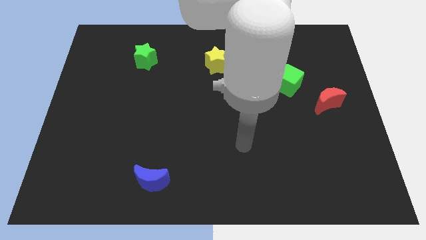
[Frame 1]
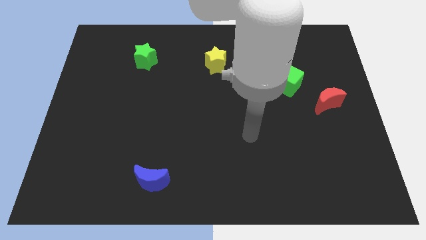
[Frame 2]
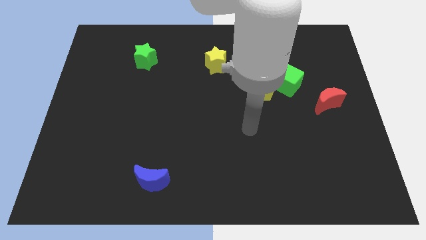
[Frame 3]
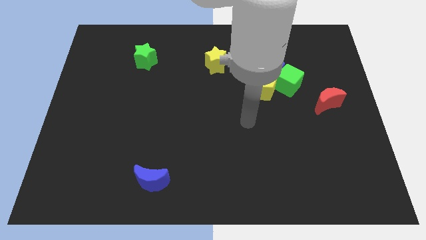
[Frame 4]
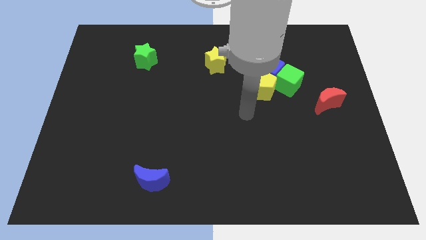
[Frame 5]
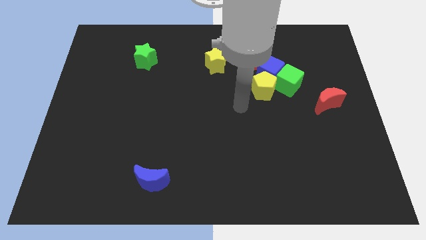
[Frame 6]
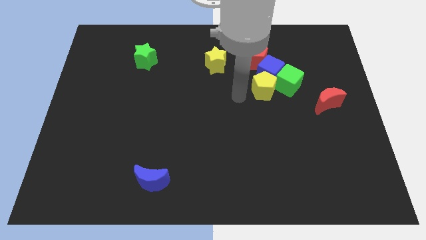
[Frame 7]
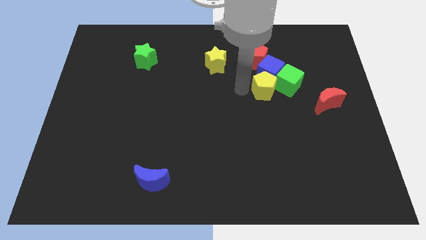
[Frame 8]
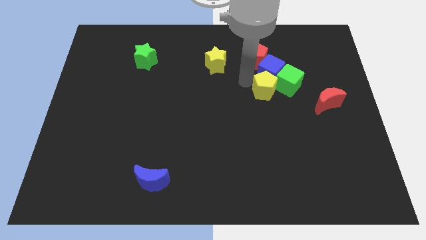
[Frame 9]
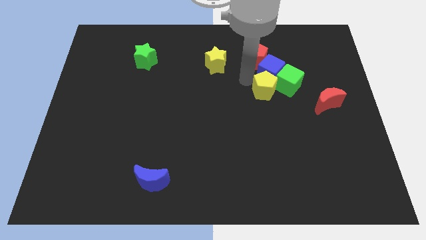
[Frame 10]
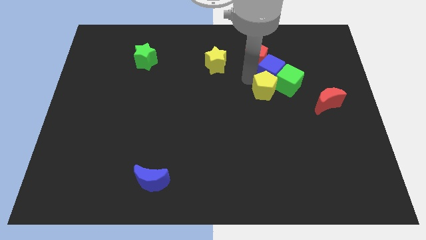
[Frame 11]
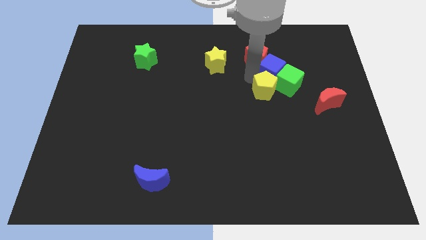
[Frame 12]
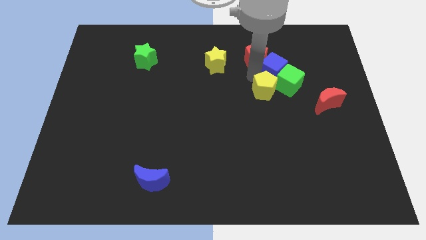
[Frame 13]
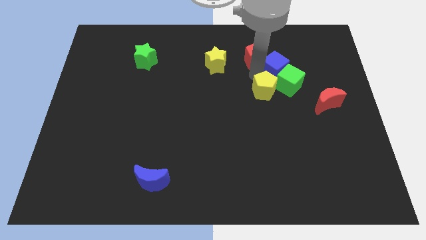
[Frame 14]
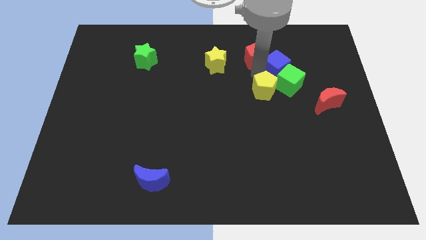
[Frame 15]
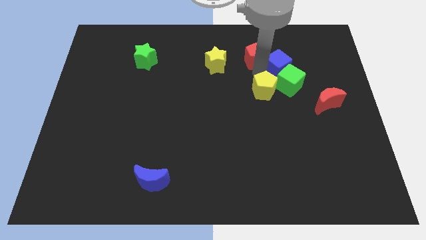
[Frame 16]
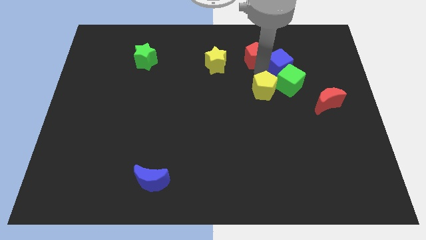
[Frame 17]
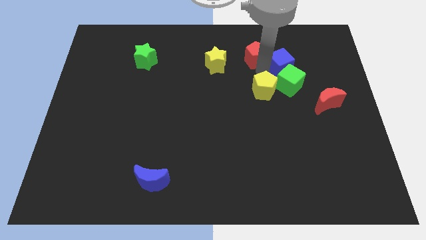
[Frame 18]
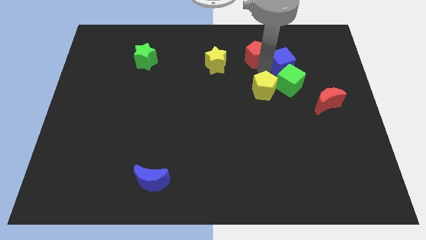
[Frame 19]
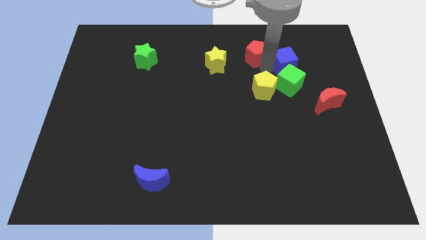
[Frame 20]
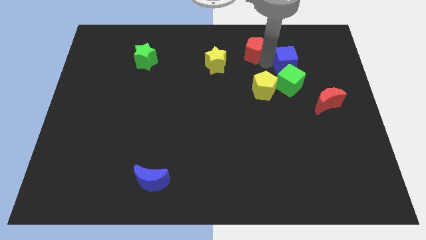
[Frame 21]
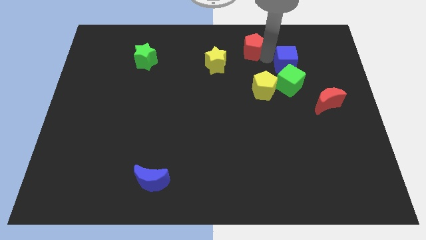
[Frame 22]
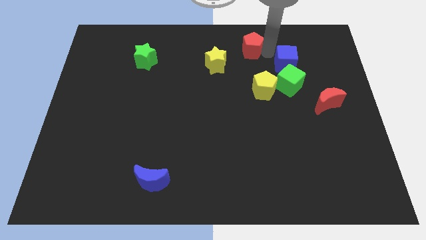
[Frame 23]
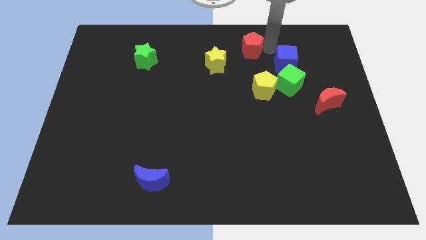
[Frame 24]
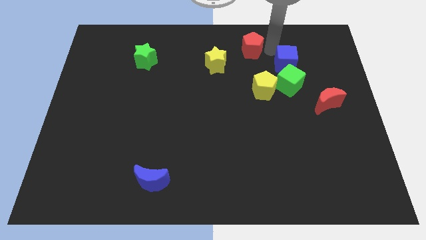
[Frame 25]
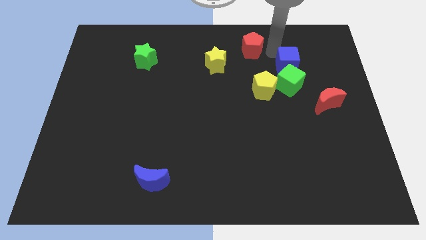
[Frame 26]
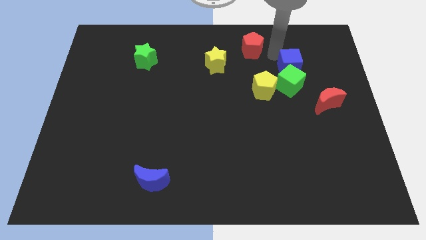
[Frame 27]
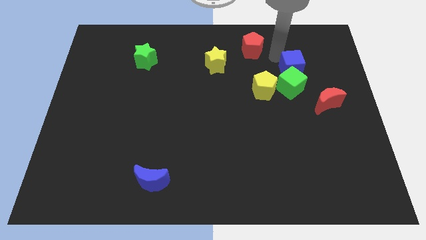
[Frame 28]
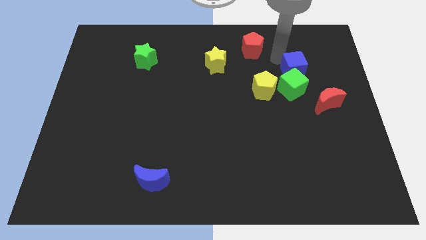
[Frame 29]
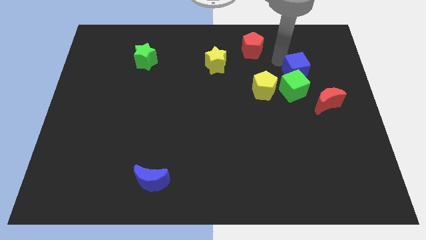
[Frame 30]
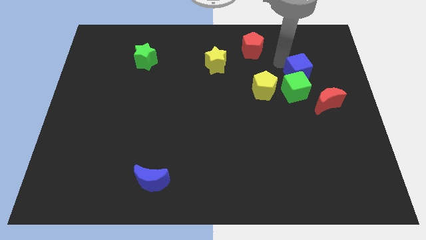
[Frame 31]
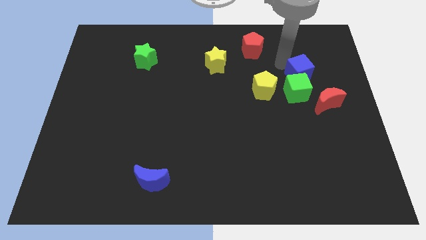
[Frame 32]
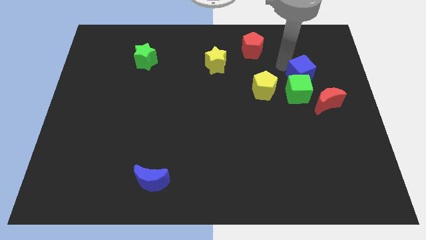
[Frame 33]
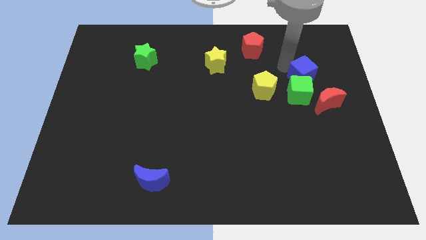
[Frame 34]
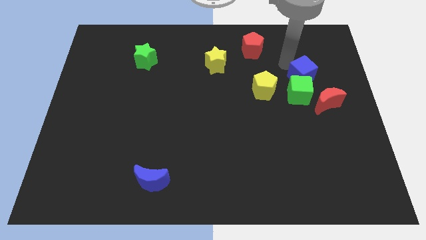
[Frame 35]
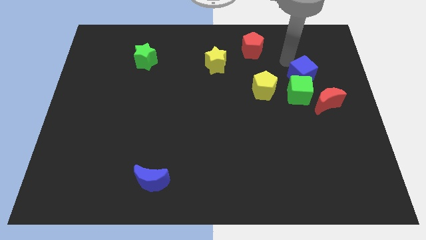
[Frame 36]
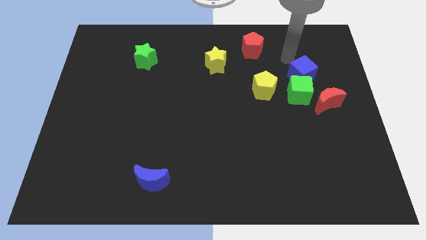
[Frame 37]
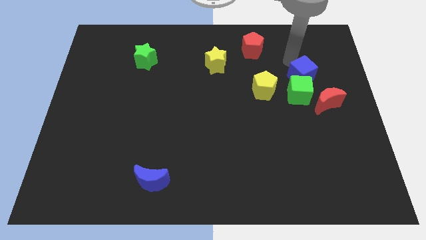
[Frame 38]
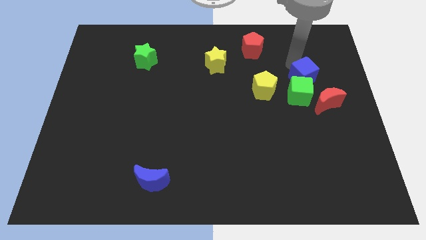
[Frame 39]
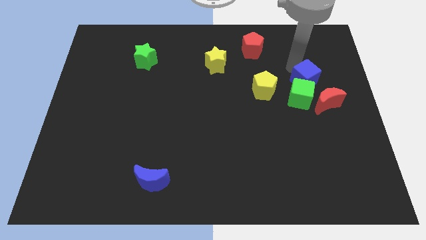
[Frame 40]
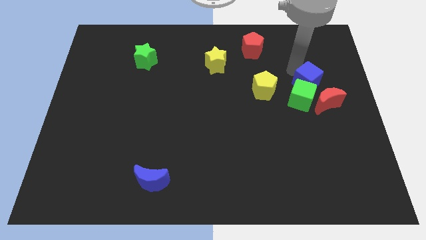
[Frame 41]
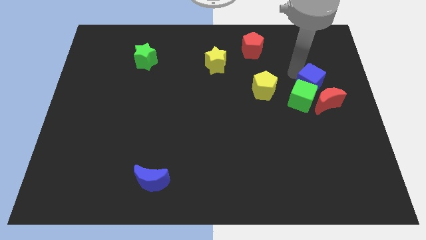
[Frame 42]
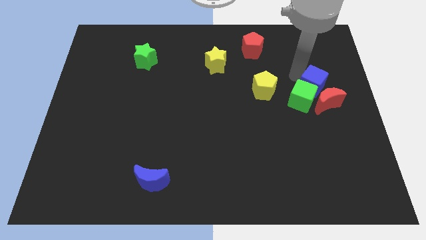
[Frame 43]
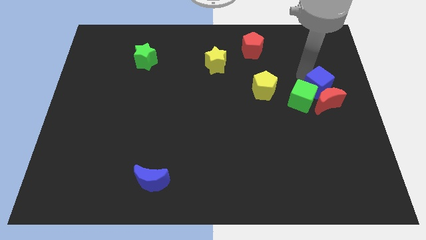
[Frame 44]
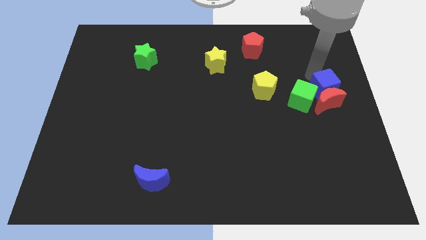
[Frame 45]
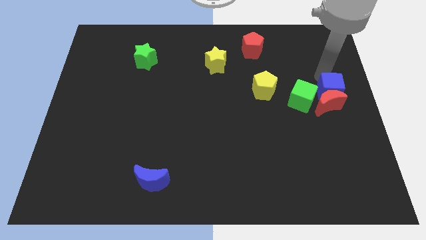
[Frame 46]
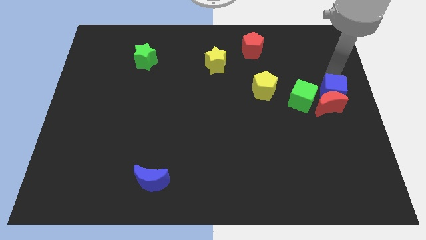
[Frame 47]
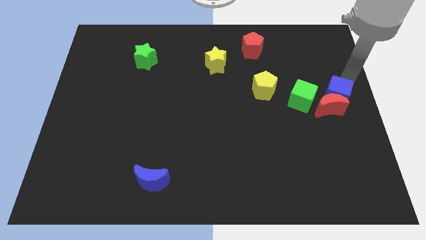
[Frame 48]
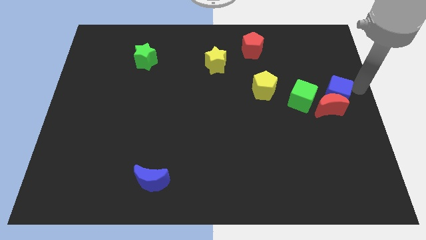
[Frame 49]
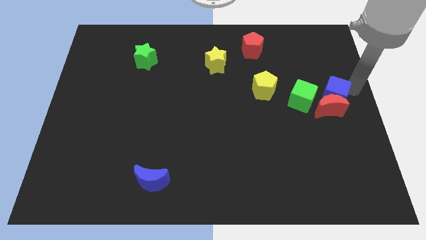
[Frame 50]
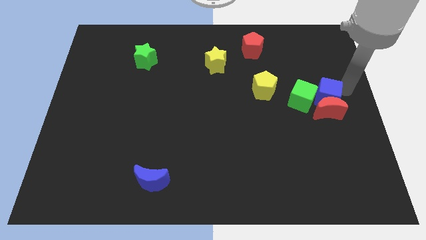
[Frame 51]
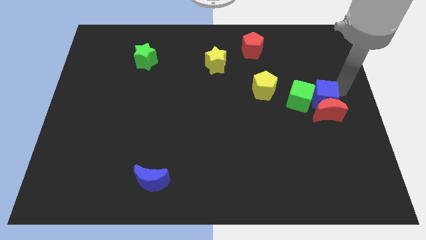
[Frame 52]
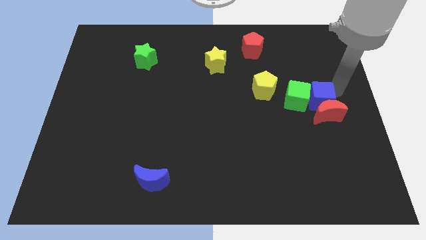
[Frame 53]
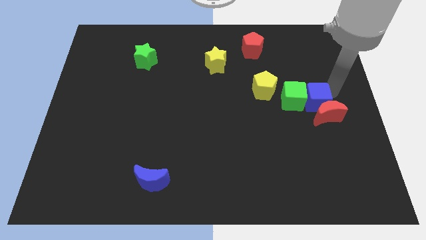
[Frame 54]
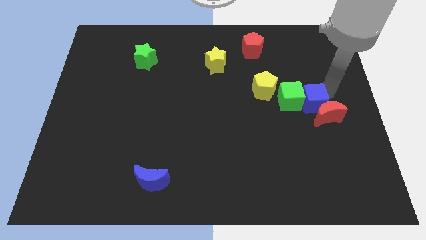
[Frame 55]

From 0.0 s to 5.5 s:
put the blue cube left of the red moon

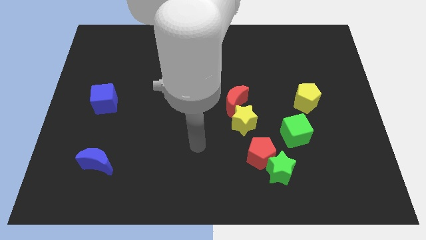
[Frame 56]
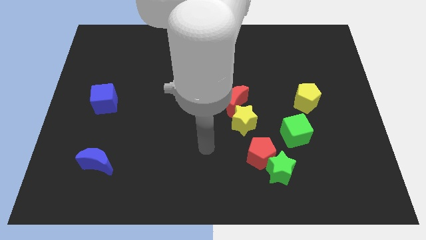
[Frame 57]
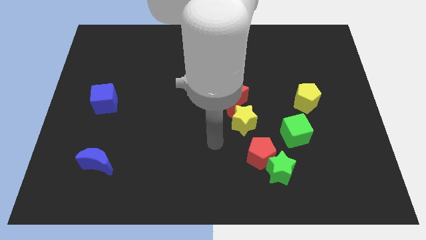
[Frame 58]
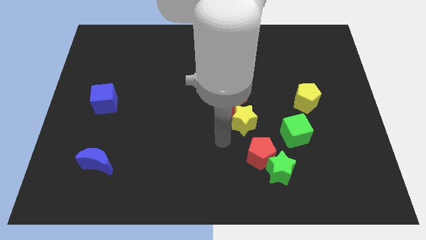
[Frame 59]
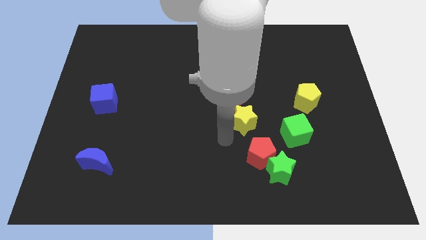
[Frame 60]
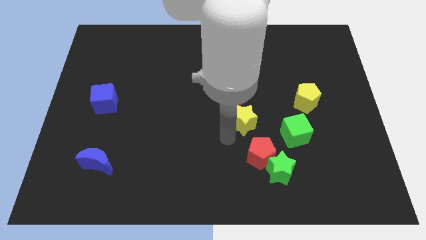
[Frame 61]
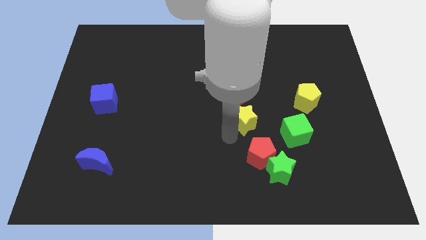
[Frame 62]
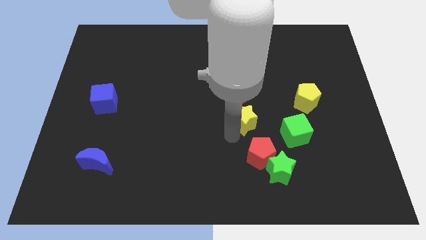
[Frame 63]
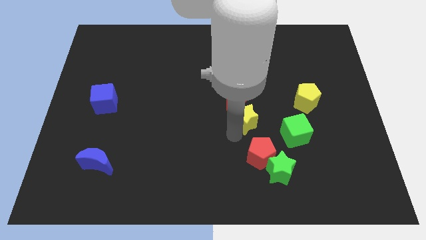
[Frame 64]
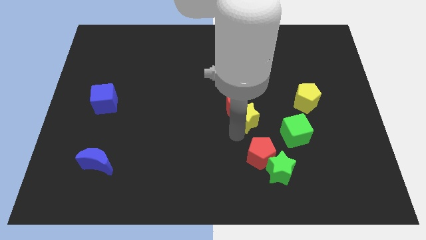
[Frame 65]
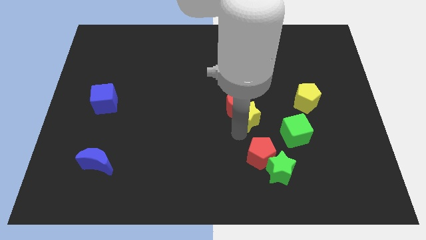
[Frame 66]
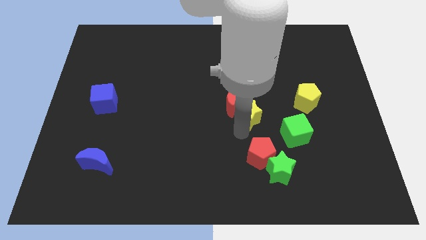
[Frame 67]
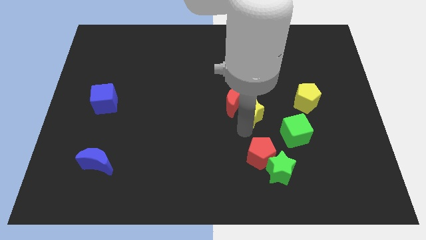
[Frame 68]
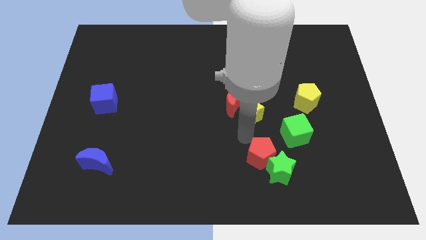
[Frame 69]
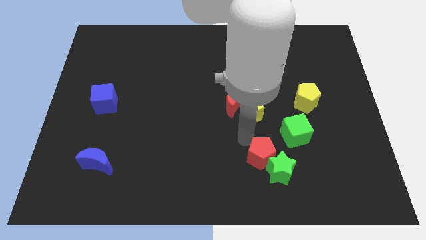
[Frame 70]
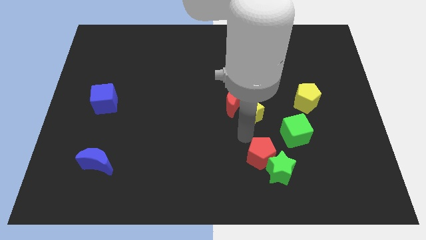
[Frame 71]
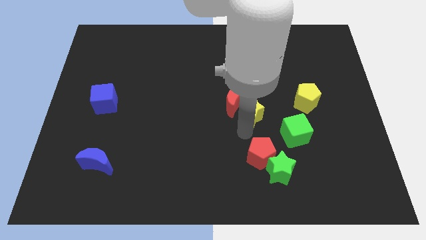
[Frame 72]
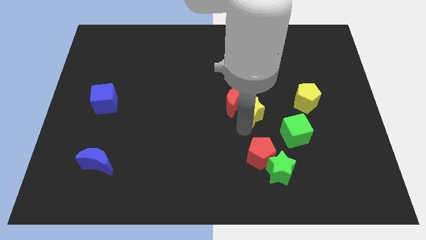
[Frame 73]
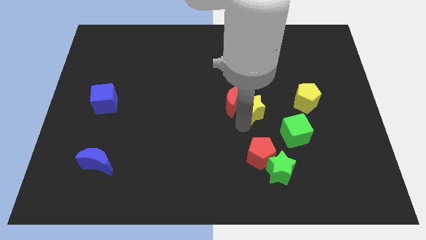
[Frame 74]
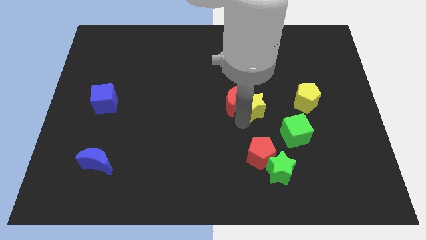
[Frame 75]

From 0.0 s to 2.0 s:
slide the yellow star diagonally up and to the right of the red moon
